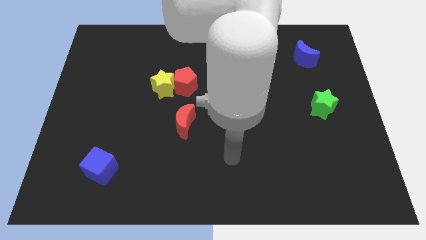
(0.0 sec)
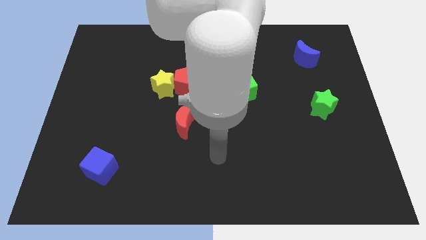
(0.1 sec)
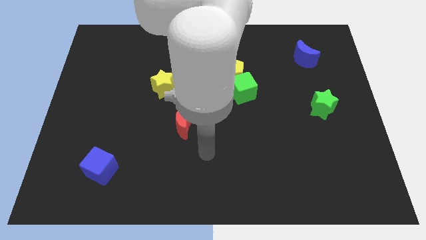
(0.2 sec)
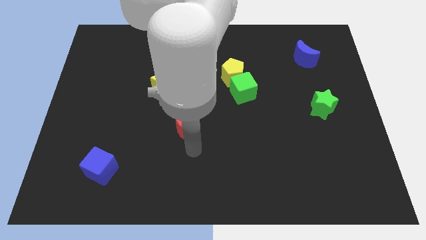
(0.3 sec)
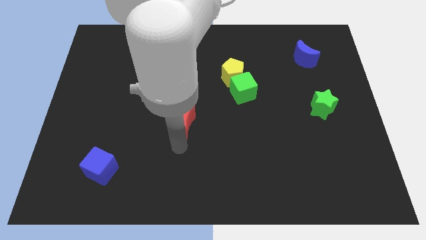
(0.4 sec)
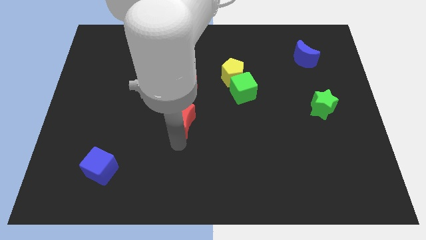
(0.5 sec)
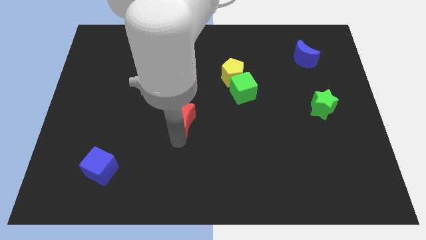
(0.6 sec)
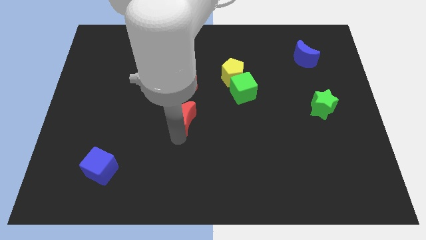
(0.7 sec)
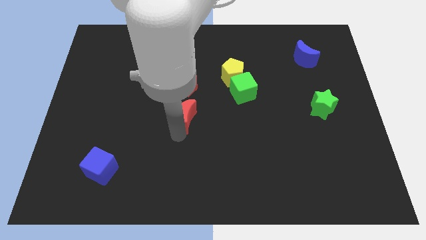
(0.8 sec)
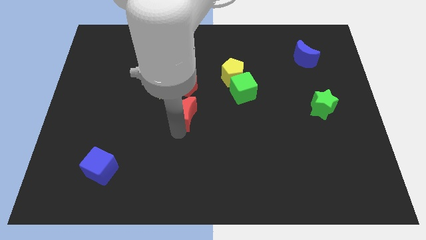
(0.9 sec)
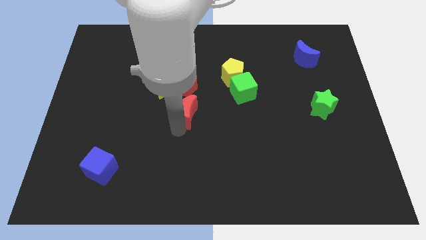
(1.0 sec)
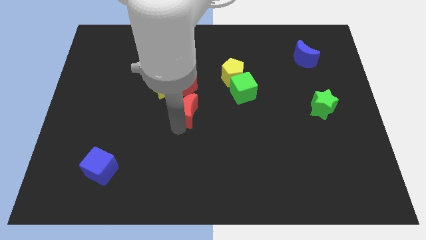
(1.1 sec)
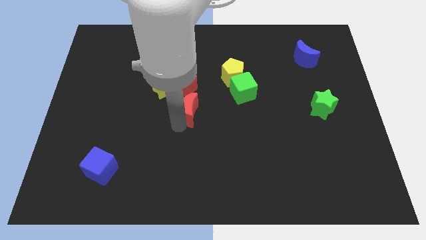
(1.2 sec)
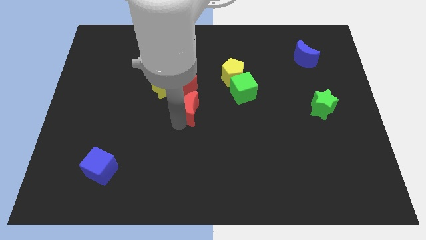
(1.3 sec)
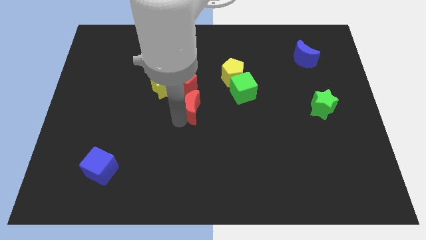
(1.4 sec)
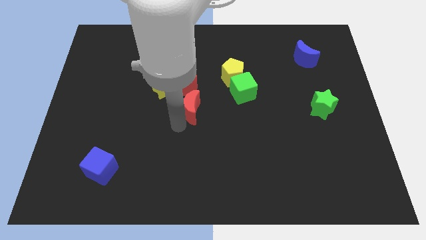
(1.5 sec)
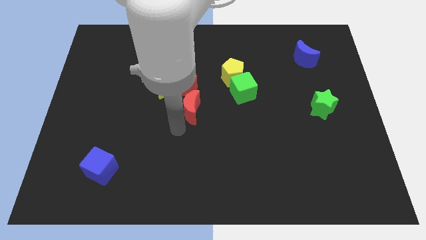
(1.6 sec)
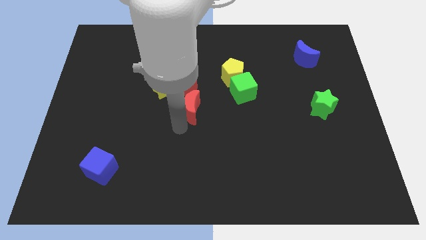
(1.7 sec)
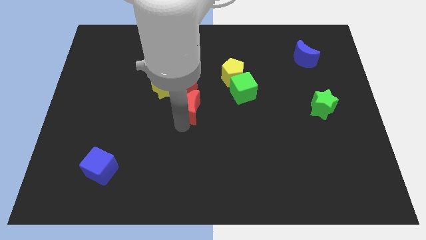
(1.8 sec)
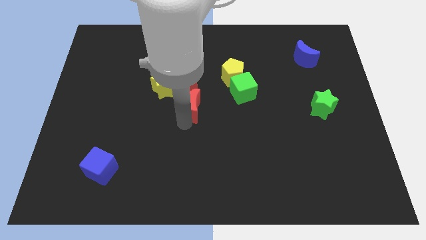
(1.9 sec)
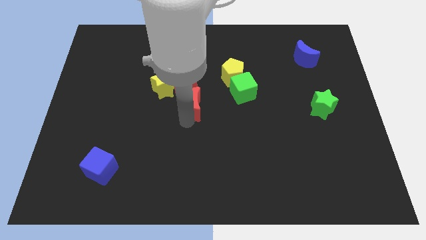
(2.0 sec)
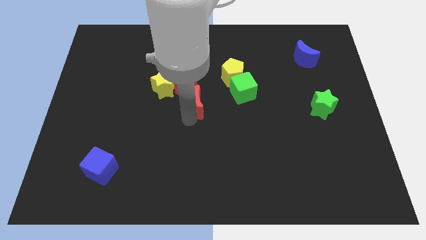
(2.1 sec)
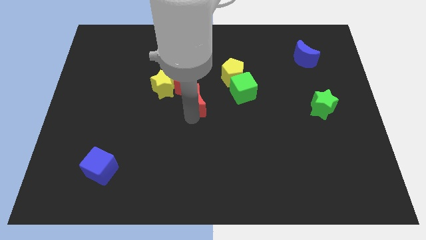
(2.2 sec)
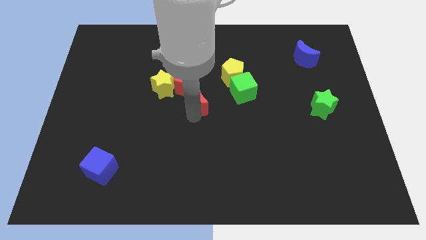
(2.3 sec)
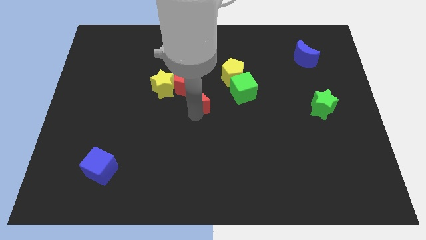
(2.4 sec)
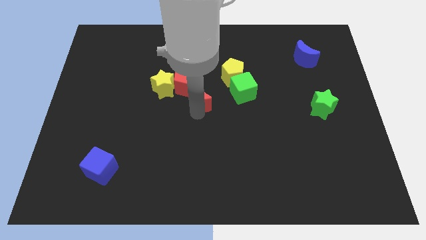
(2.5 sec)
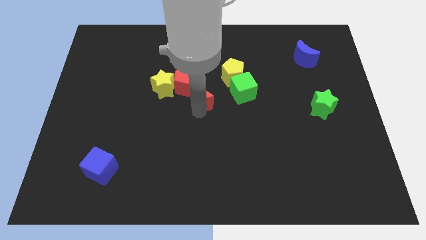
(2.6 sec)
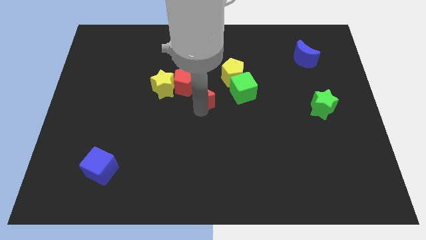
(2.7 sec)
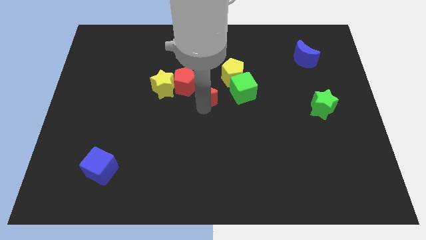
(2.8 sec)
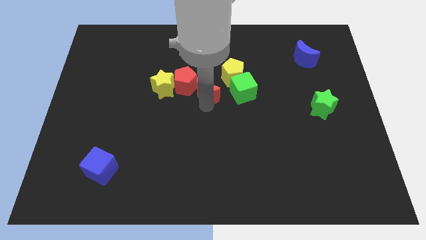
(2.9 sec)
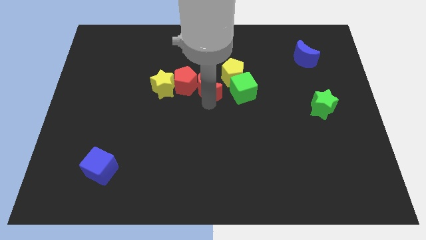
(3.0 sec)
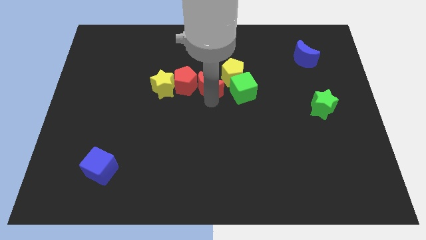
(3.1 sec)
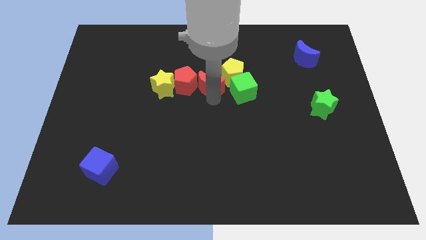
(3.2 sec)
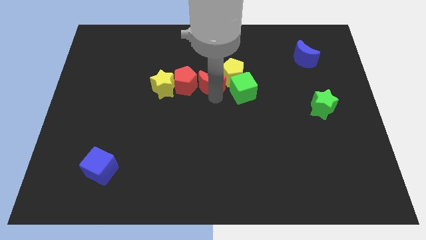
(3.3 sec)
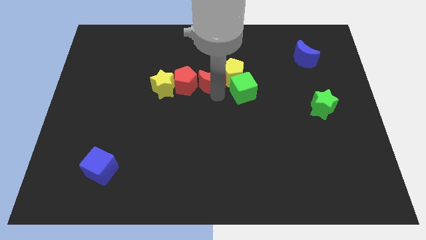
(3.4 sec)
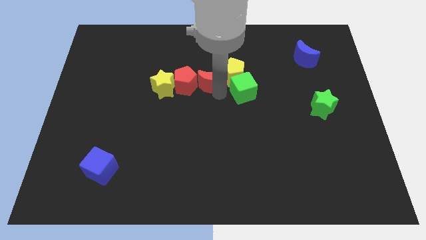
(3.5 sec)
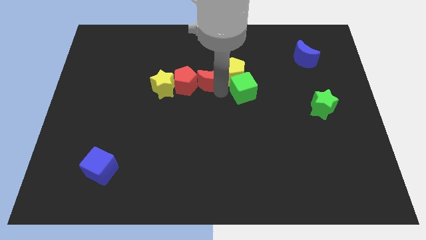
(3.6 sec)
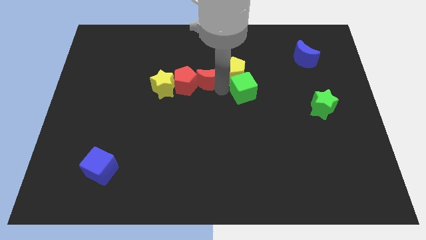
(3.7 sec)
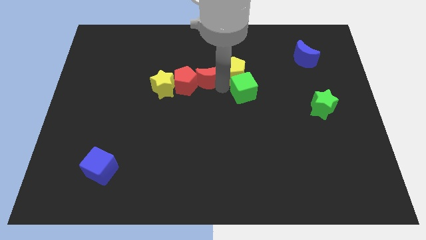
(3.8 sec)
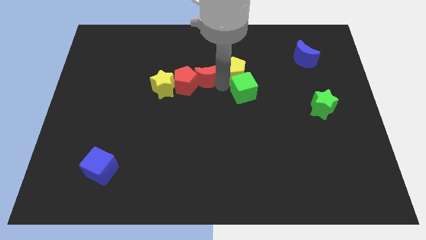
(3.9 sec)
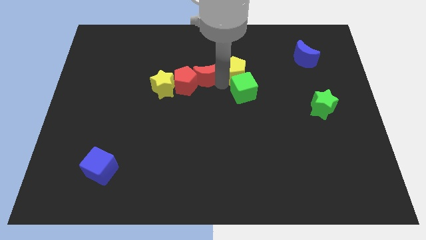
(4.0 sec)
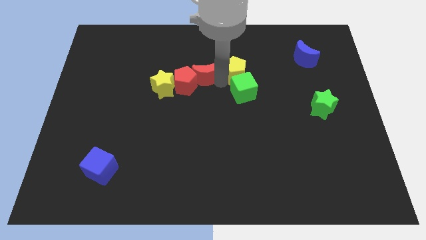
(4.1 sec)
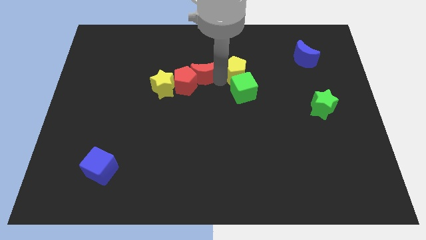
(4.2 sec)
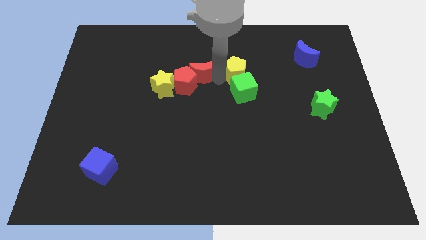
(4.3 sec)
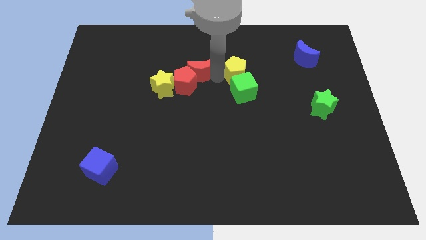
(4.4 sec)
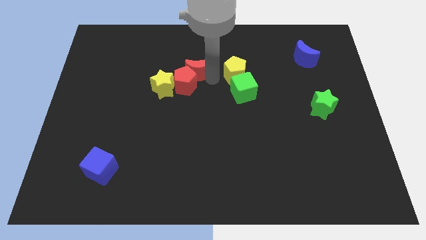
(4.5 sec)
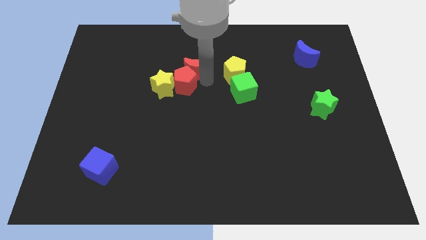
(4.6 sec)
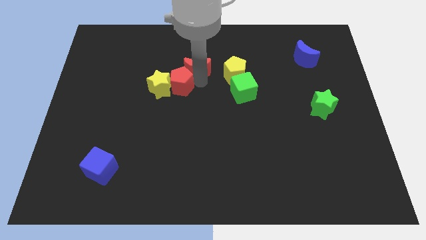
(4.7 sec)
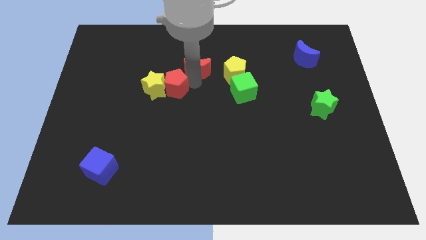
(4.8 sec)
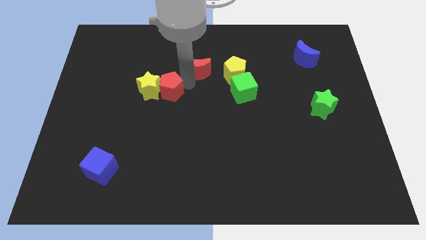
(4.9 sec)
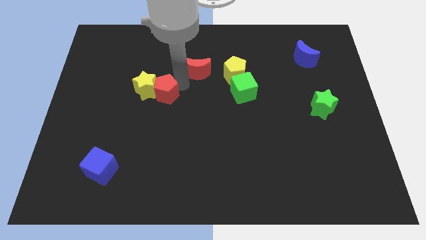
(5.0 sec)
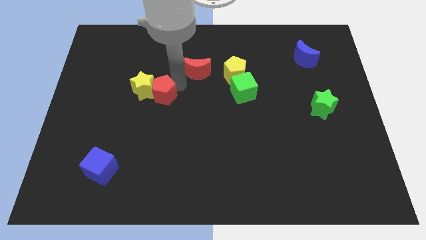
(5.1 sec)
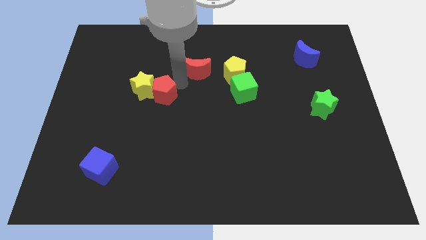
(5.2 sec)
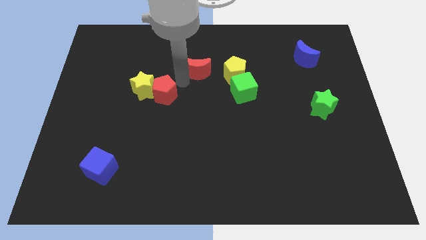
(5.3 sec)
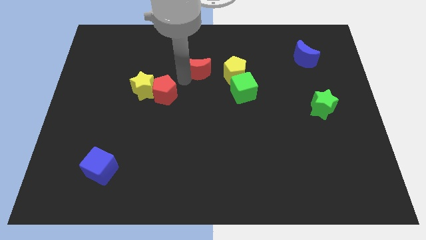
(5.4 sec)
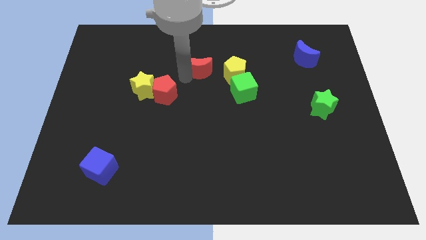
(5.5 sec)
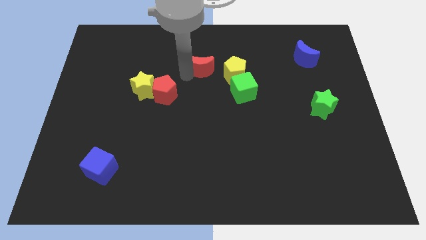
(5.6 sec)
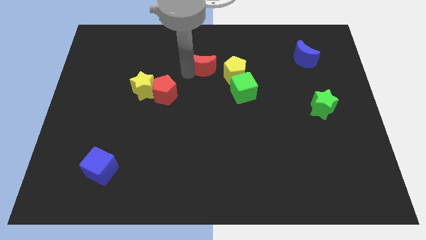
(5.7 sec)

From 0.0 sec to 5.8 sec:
push the red moon to the top left of the yellow pentagon

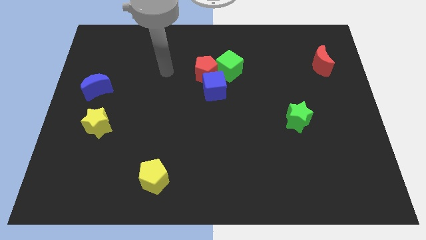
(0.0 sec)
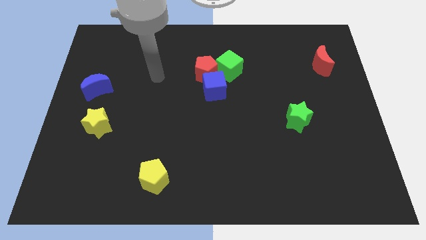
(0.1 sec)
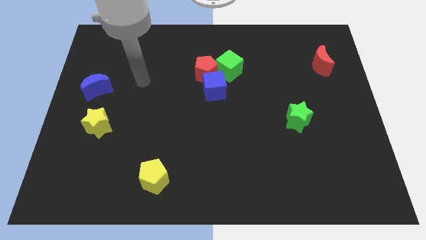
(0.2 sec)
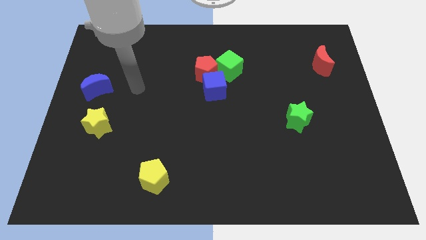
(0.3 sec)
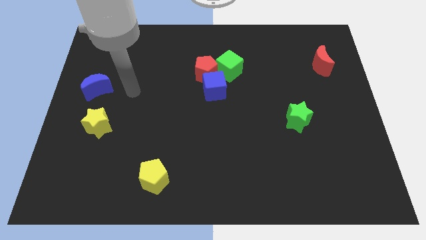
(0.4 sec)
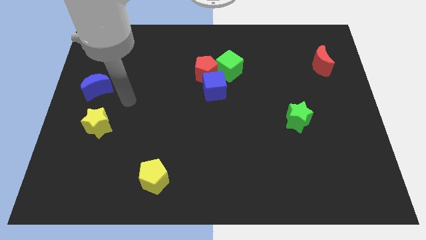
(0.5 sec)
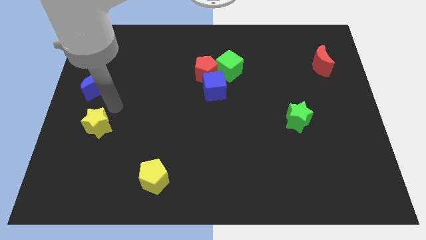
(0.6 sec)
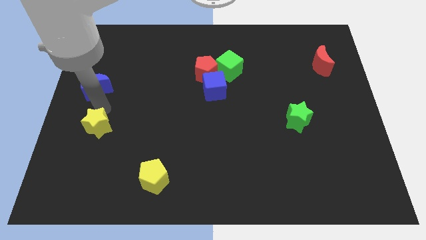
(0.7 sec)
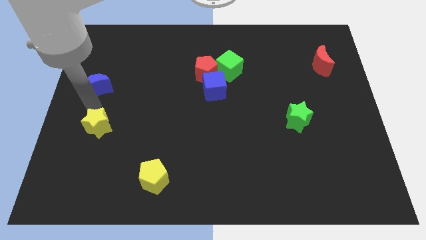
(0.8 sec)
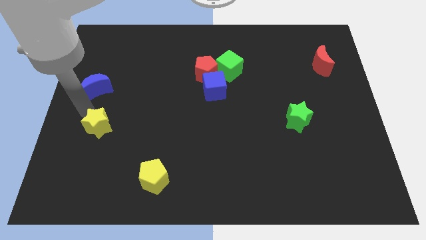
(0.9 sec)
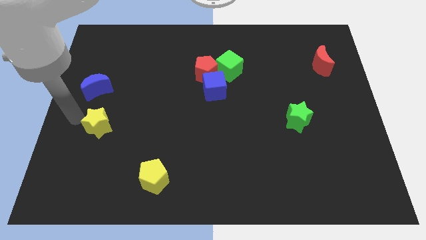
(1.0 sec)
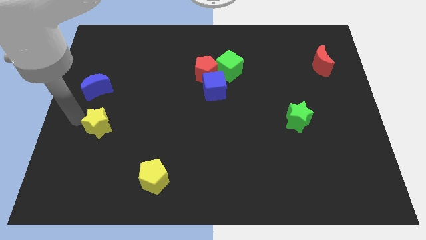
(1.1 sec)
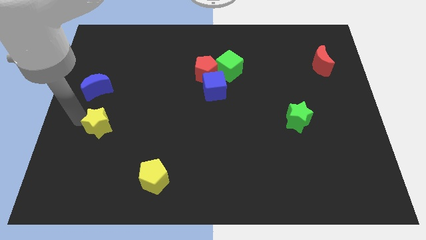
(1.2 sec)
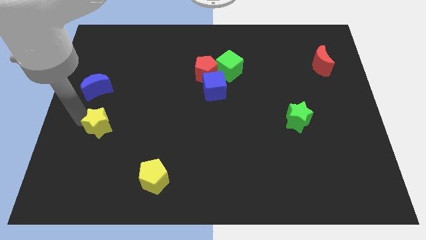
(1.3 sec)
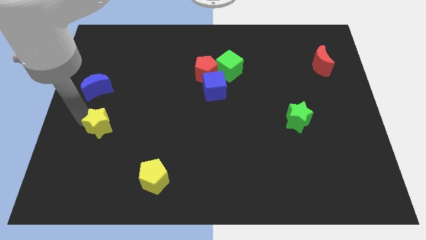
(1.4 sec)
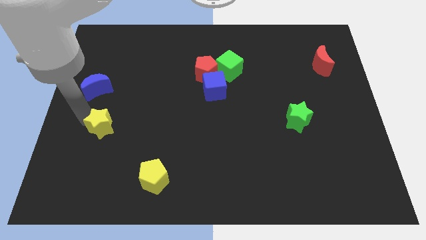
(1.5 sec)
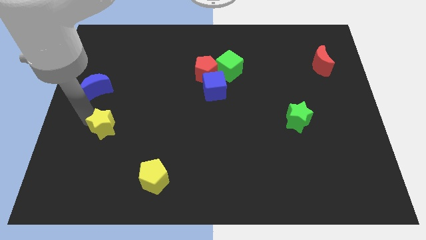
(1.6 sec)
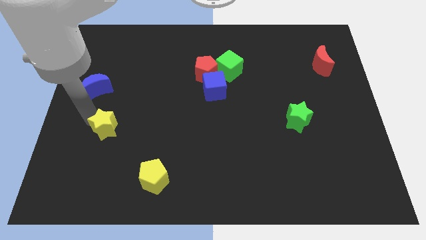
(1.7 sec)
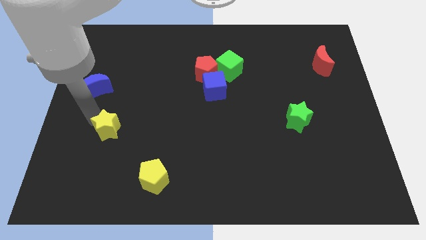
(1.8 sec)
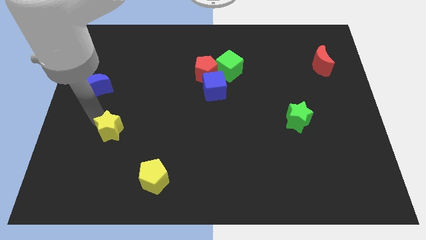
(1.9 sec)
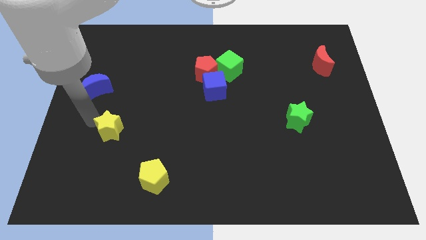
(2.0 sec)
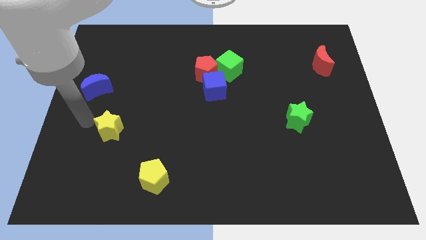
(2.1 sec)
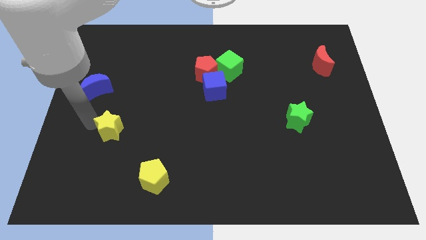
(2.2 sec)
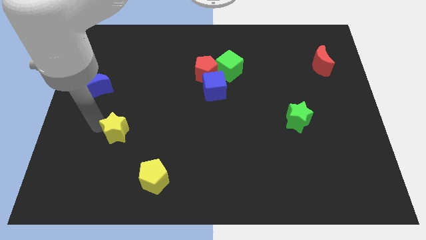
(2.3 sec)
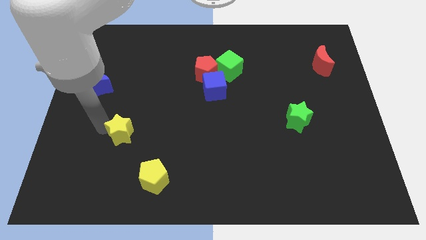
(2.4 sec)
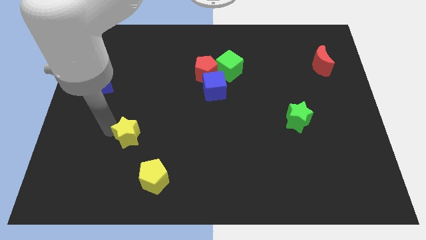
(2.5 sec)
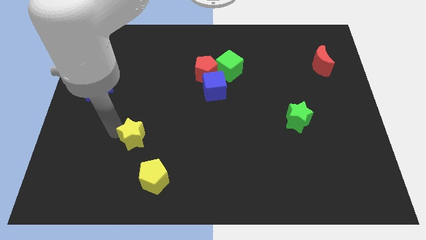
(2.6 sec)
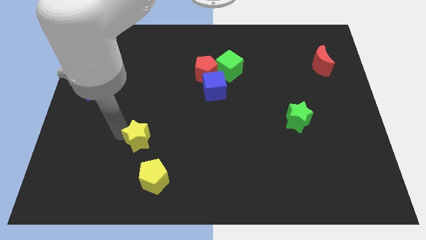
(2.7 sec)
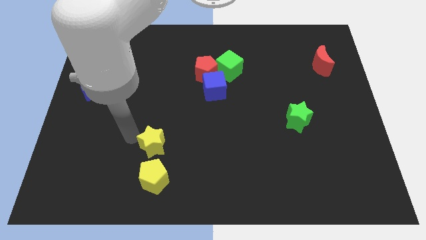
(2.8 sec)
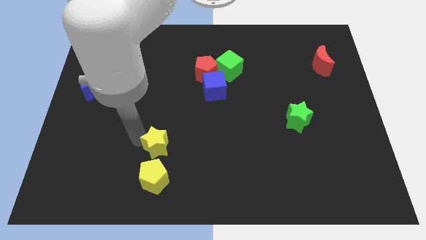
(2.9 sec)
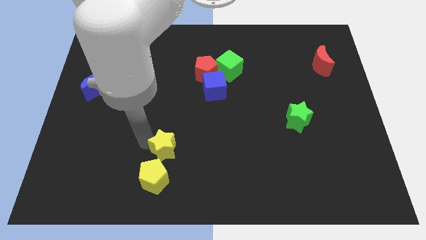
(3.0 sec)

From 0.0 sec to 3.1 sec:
move the yellow star diagonally up and to the right of the yellow pentagon
